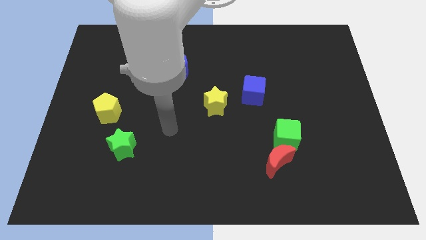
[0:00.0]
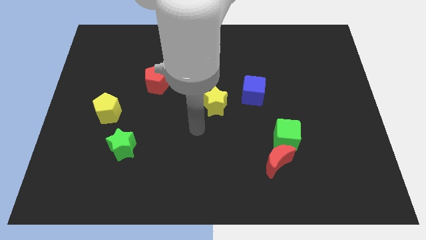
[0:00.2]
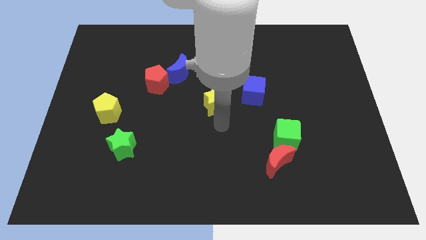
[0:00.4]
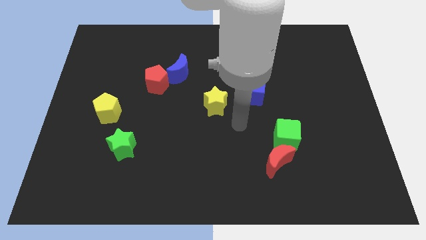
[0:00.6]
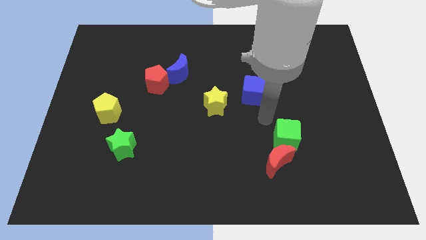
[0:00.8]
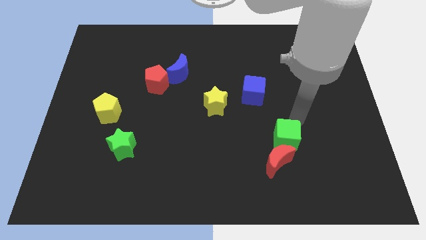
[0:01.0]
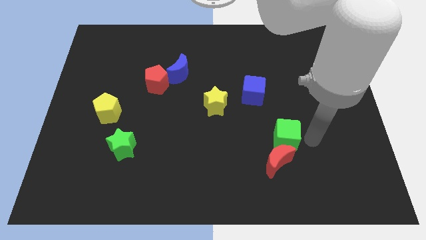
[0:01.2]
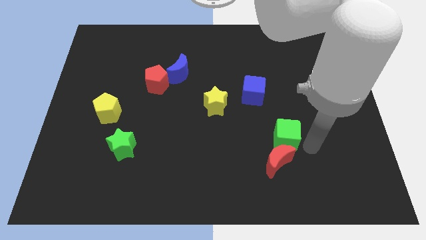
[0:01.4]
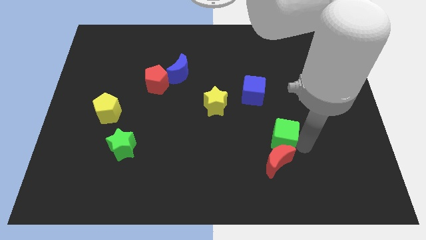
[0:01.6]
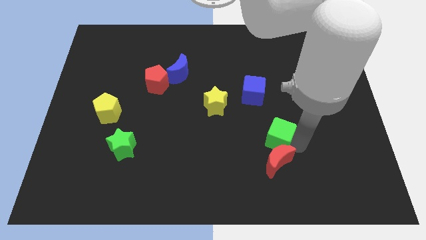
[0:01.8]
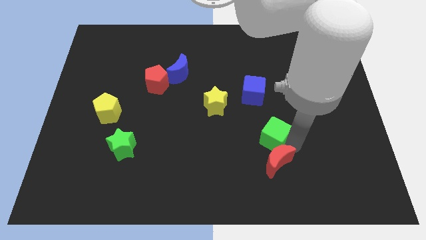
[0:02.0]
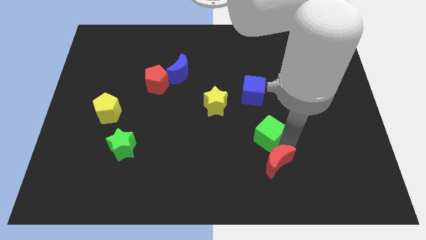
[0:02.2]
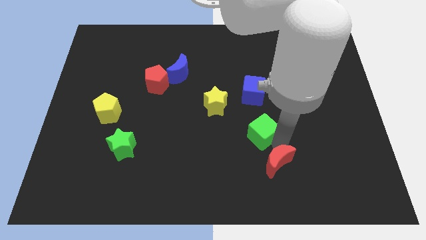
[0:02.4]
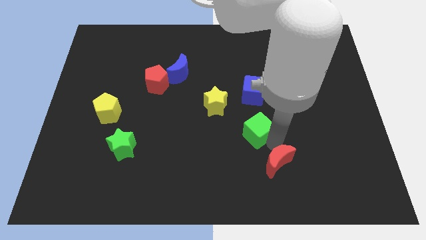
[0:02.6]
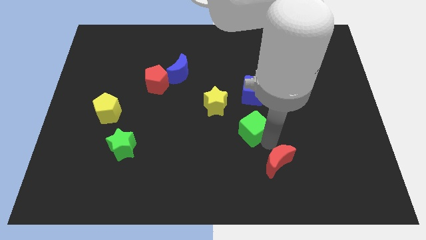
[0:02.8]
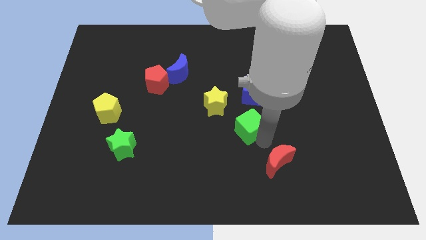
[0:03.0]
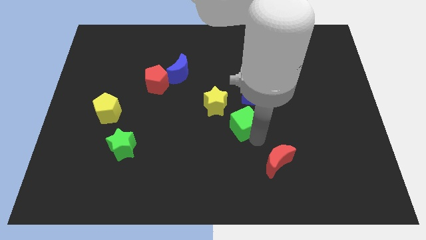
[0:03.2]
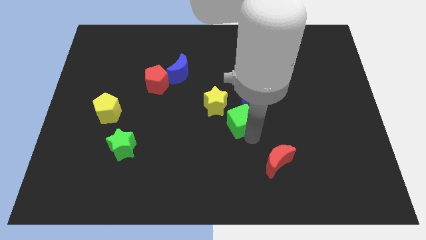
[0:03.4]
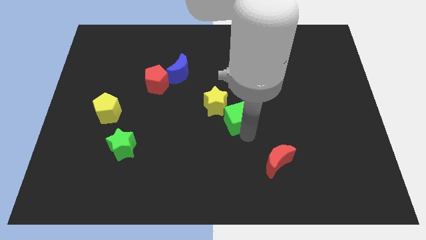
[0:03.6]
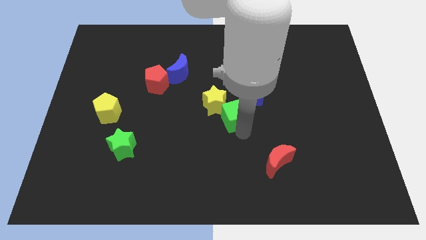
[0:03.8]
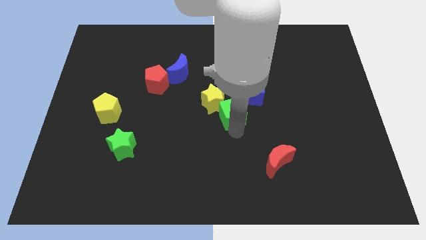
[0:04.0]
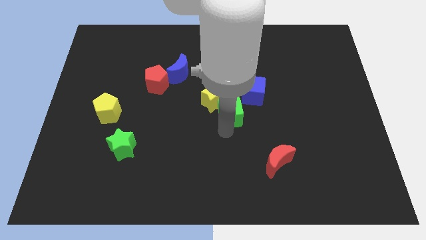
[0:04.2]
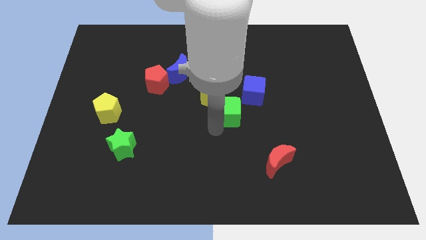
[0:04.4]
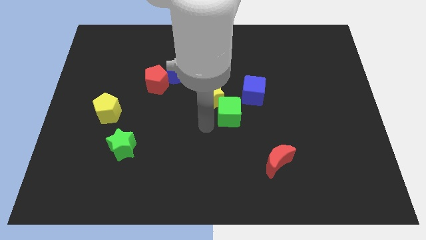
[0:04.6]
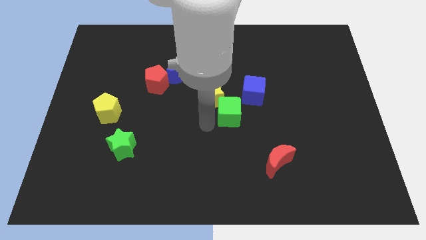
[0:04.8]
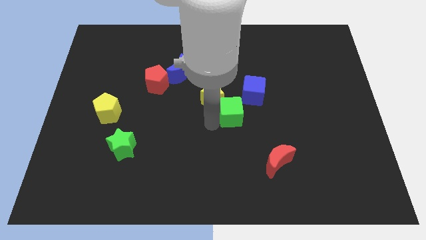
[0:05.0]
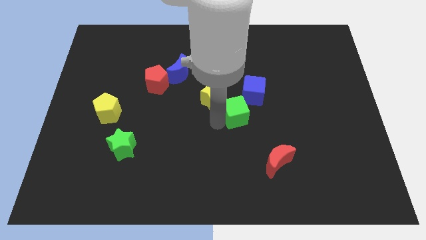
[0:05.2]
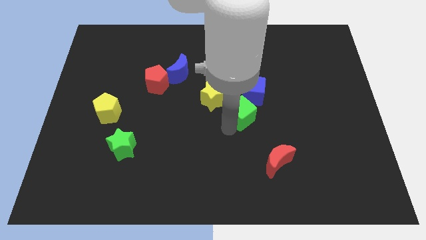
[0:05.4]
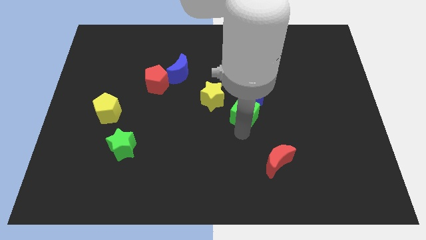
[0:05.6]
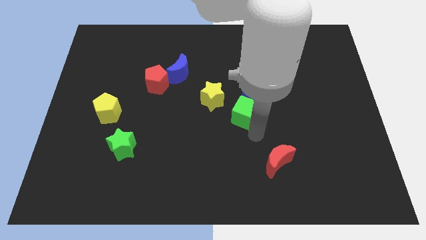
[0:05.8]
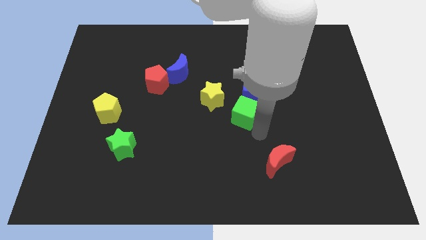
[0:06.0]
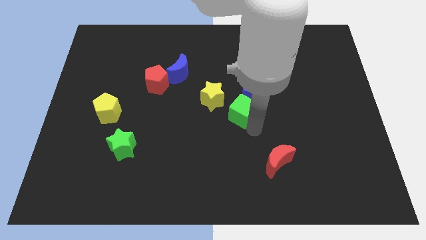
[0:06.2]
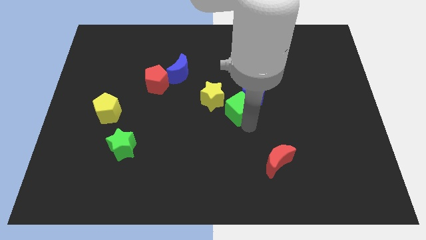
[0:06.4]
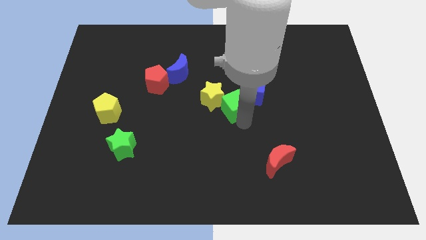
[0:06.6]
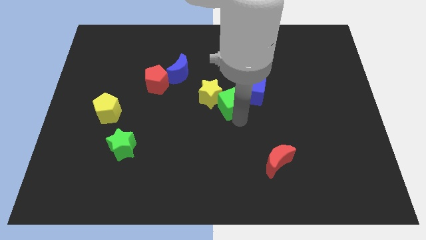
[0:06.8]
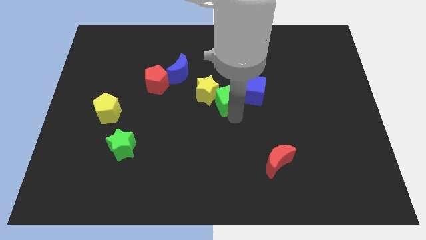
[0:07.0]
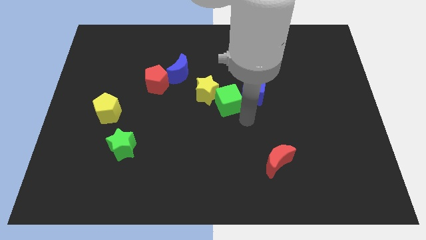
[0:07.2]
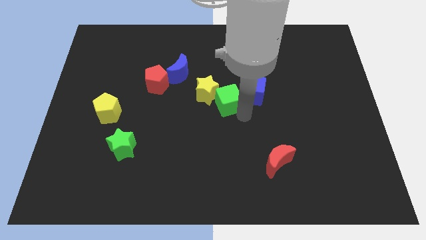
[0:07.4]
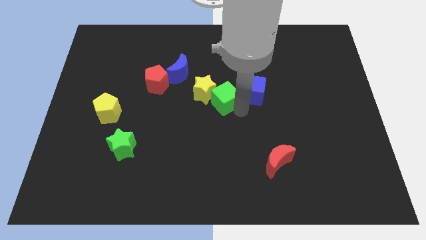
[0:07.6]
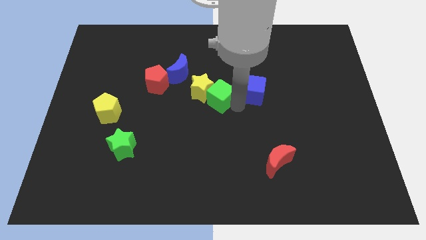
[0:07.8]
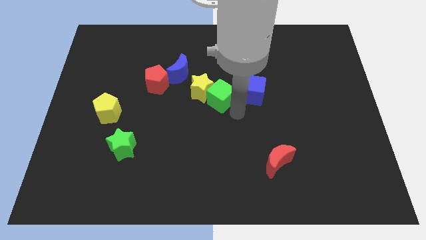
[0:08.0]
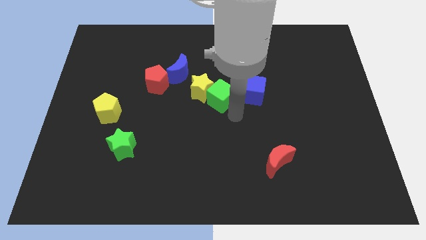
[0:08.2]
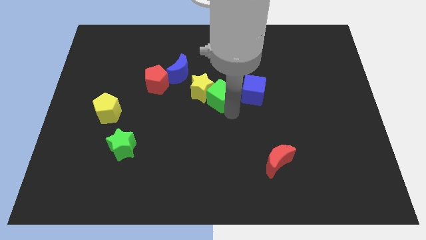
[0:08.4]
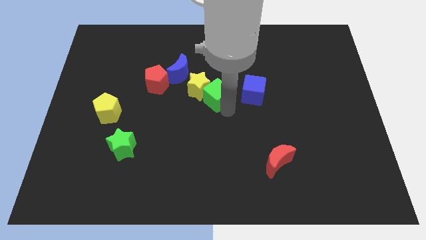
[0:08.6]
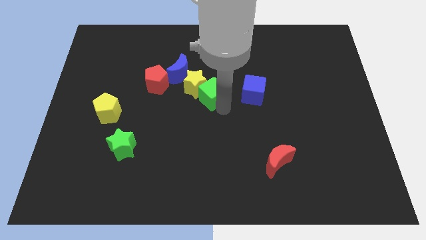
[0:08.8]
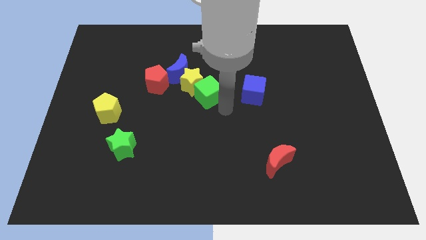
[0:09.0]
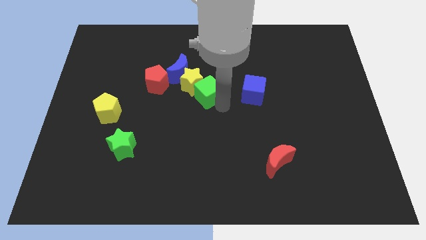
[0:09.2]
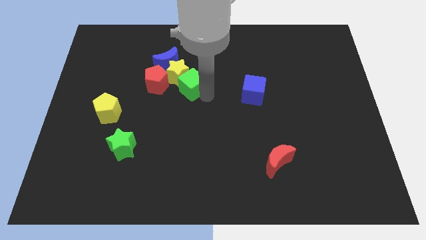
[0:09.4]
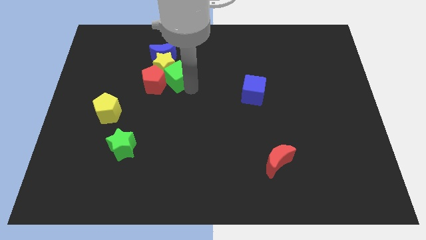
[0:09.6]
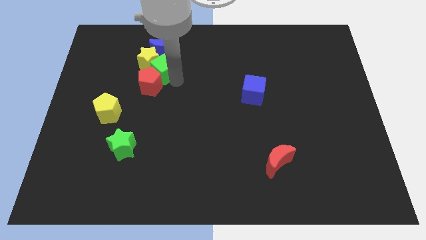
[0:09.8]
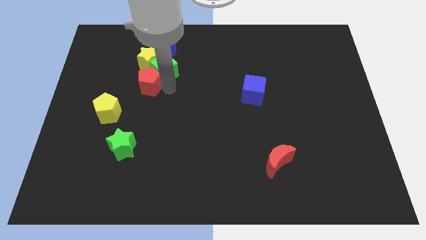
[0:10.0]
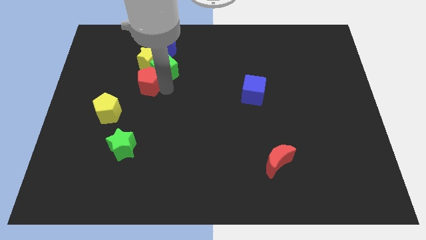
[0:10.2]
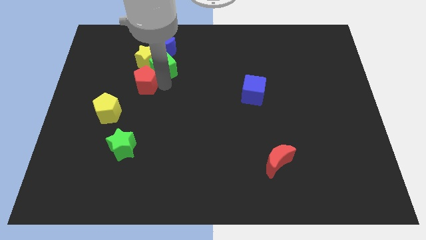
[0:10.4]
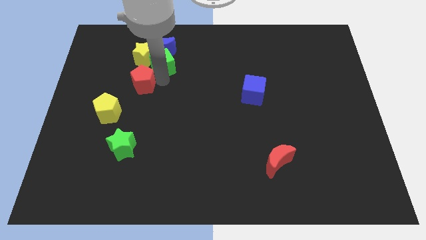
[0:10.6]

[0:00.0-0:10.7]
move the green cube next to the blue moon

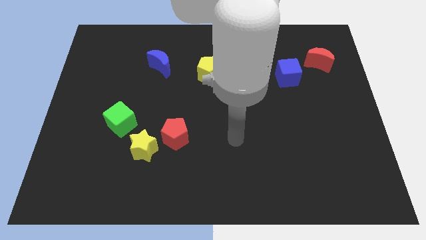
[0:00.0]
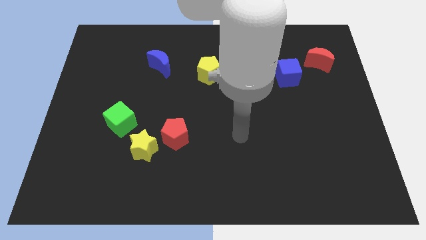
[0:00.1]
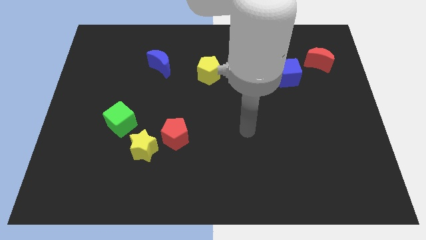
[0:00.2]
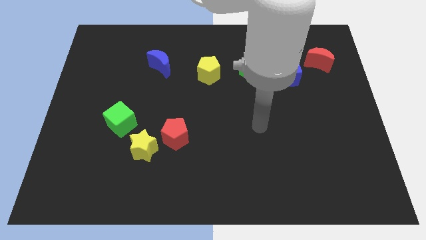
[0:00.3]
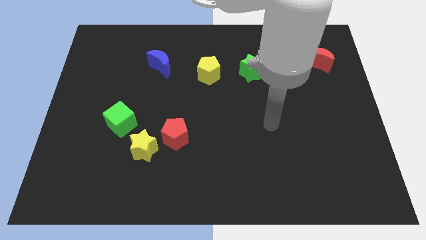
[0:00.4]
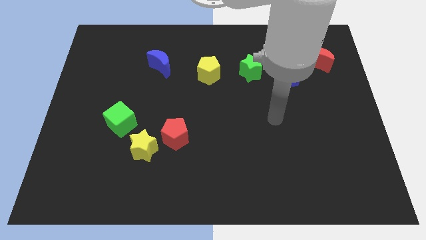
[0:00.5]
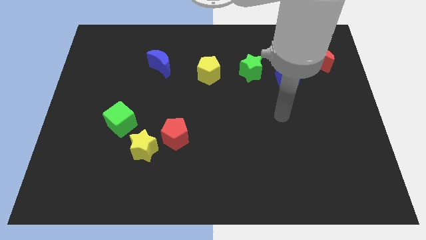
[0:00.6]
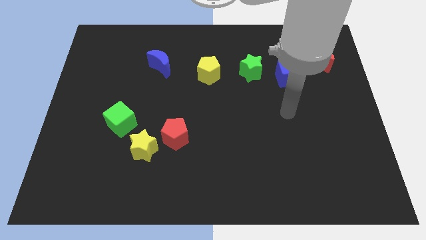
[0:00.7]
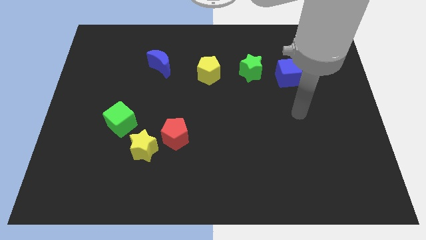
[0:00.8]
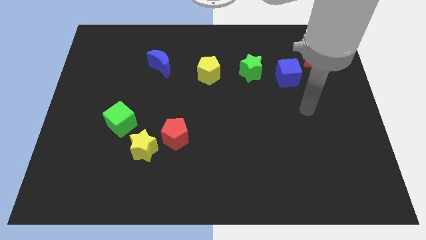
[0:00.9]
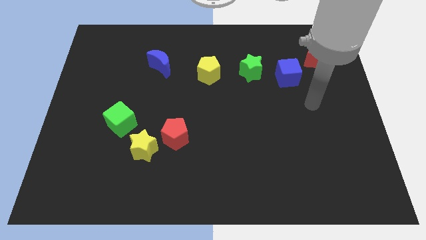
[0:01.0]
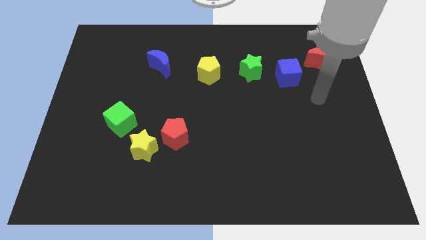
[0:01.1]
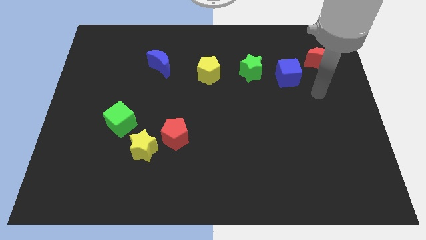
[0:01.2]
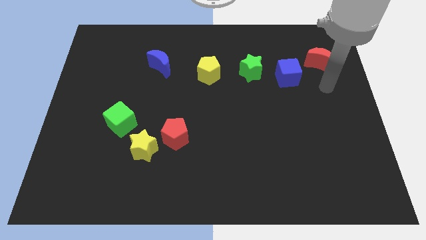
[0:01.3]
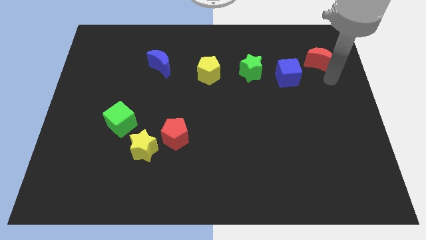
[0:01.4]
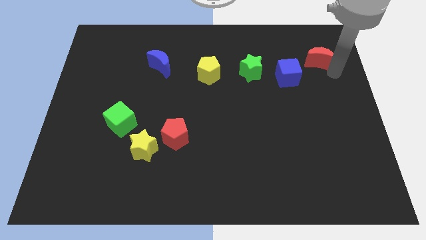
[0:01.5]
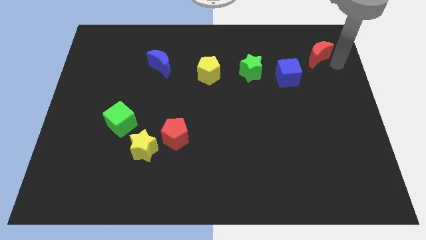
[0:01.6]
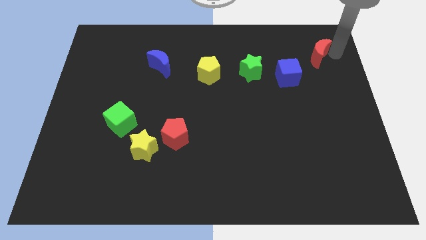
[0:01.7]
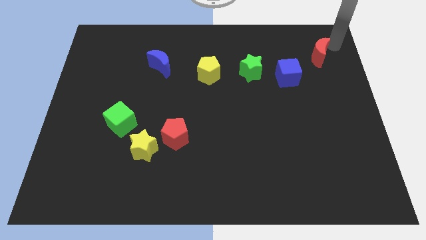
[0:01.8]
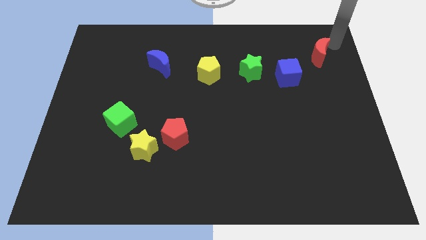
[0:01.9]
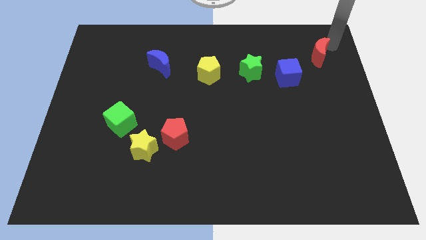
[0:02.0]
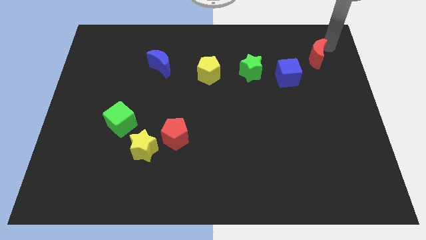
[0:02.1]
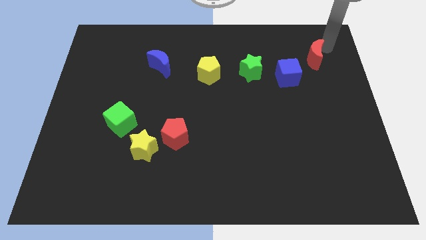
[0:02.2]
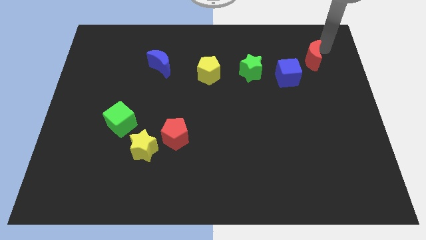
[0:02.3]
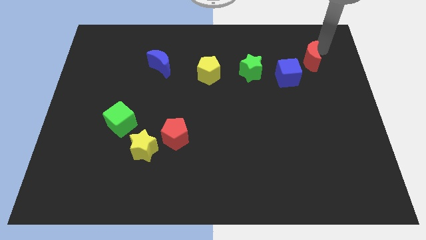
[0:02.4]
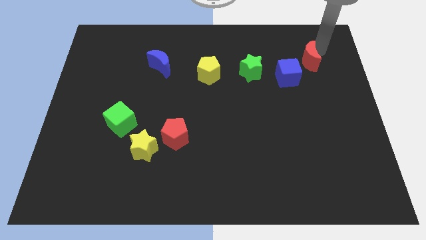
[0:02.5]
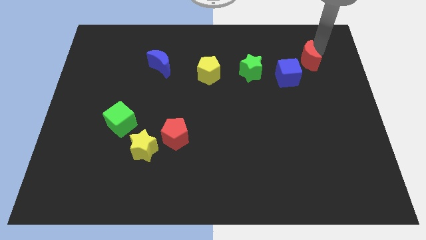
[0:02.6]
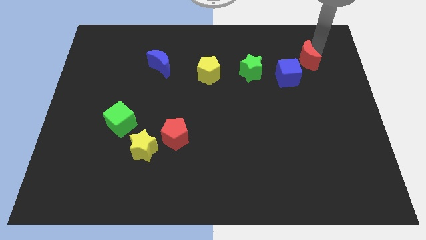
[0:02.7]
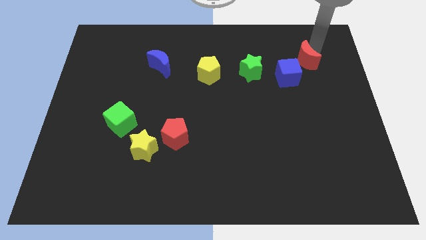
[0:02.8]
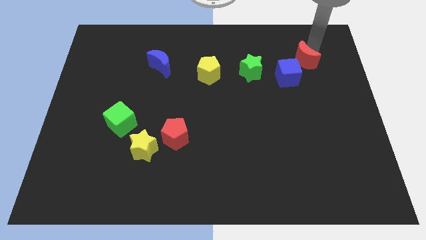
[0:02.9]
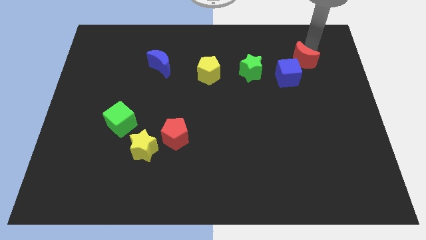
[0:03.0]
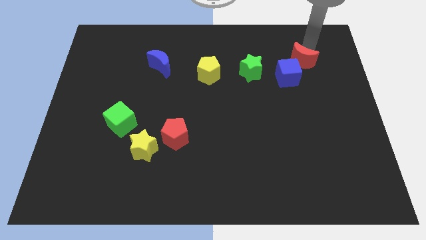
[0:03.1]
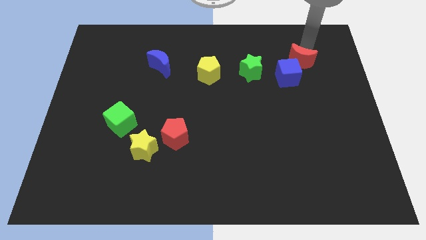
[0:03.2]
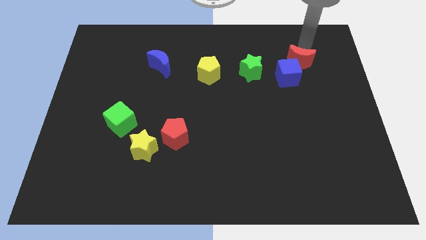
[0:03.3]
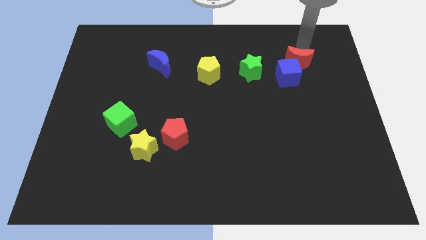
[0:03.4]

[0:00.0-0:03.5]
put the red moon towards the blue cube
